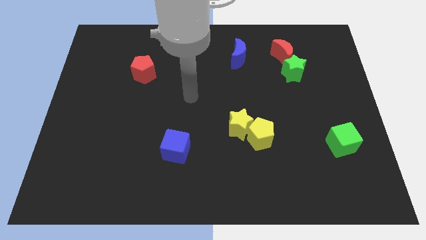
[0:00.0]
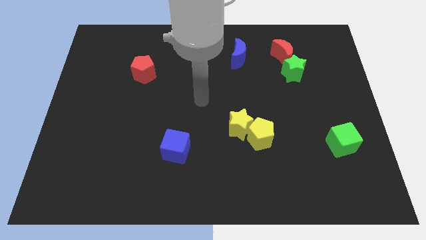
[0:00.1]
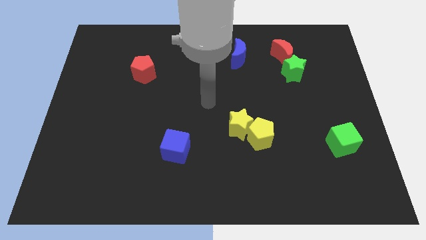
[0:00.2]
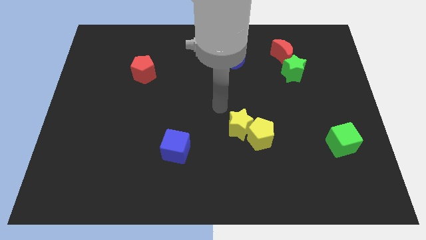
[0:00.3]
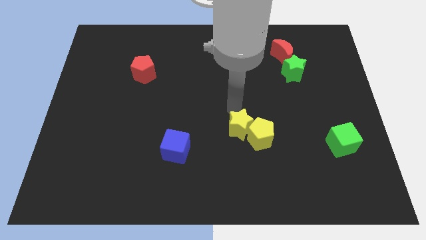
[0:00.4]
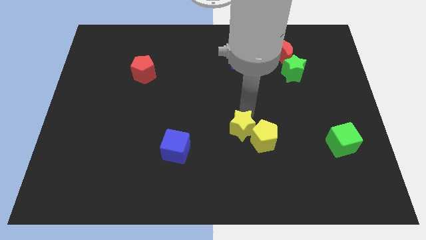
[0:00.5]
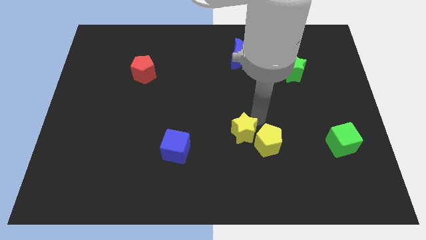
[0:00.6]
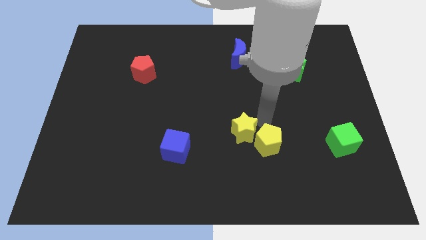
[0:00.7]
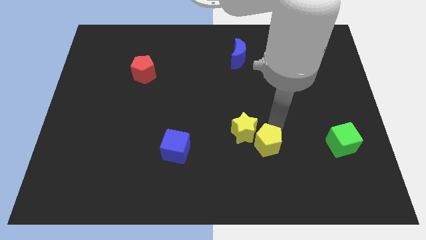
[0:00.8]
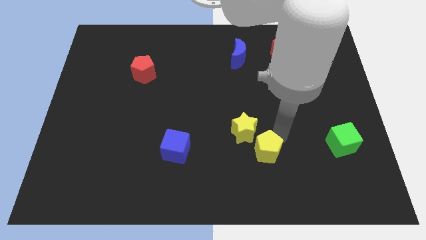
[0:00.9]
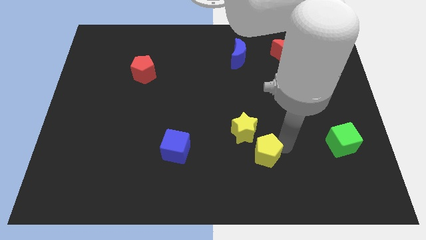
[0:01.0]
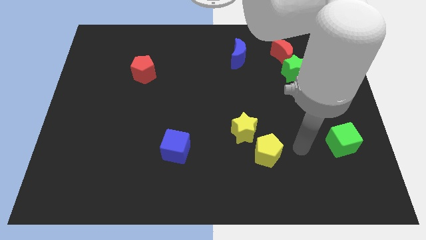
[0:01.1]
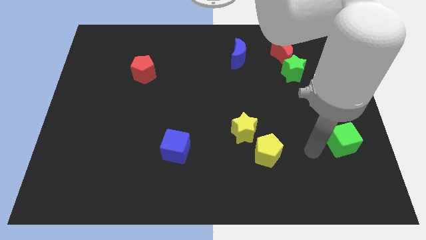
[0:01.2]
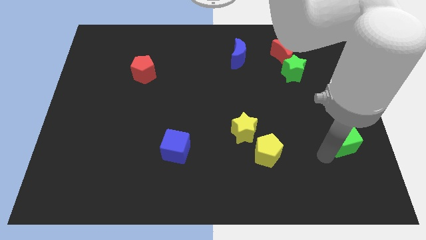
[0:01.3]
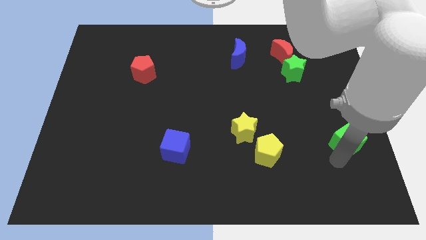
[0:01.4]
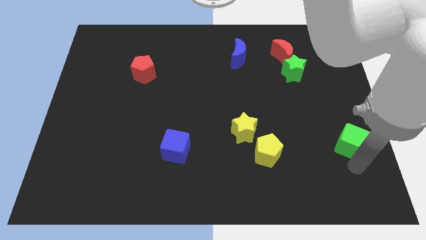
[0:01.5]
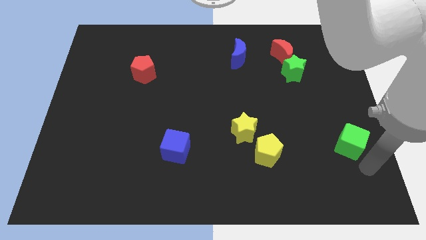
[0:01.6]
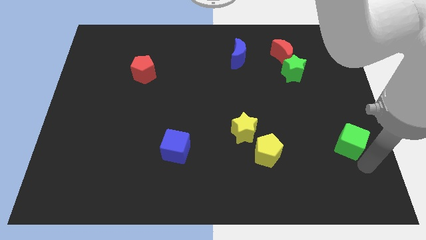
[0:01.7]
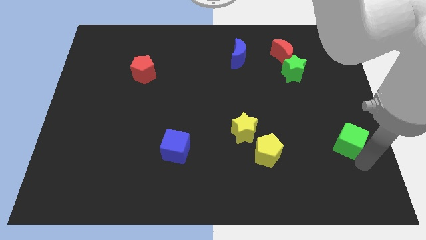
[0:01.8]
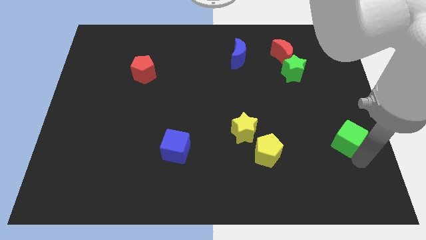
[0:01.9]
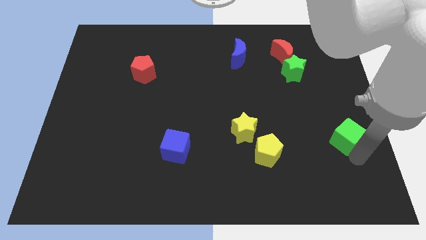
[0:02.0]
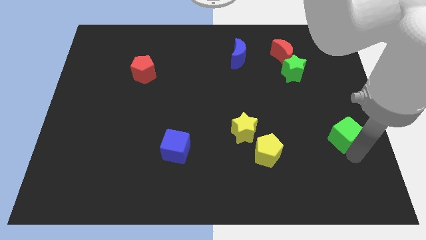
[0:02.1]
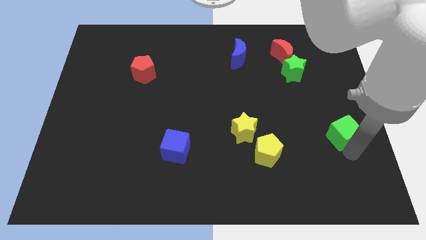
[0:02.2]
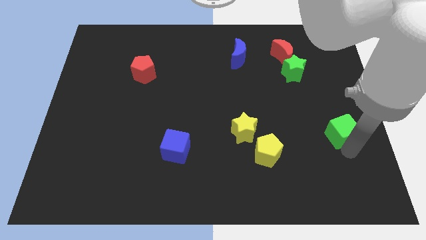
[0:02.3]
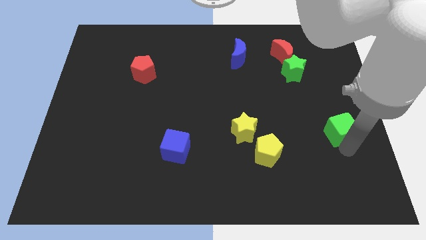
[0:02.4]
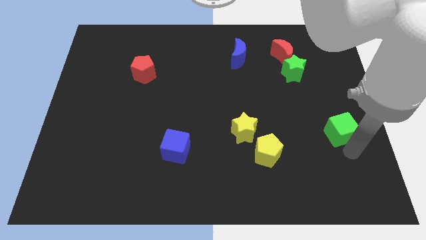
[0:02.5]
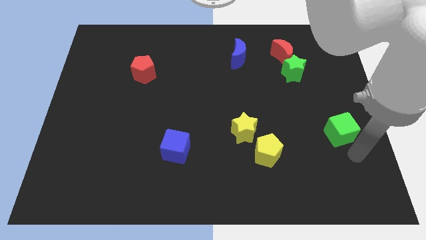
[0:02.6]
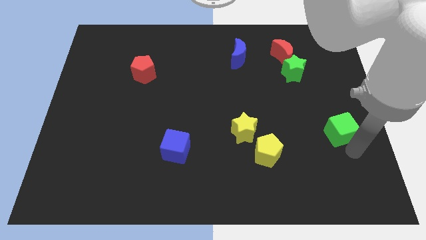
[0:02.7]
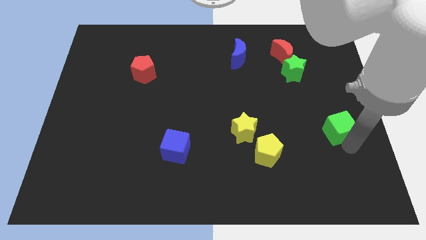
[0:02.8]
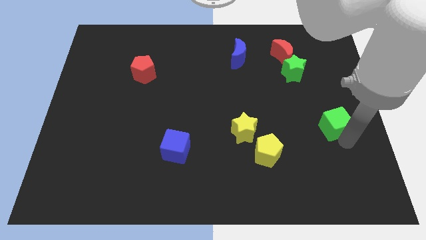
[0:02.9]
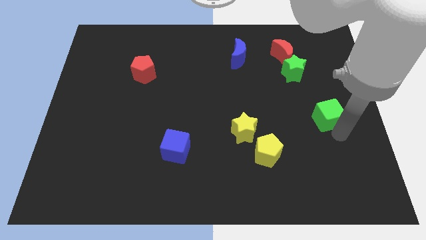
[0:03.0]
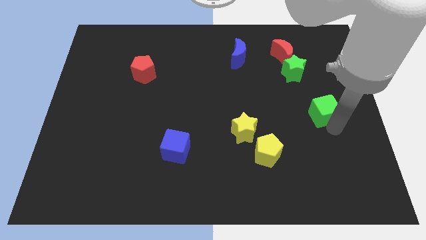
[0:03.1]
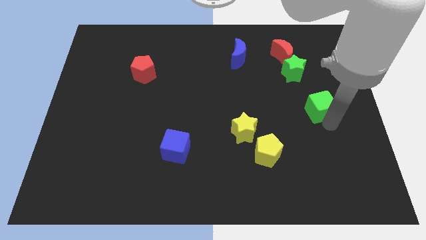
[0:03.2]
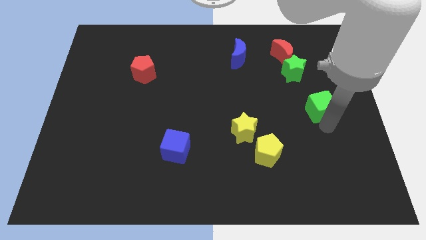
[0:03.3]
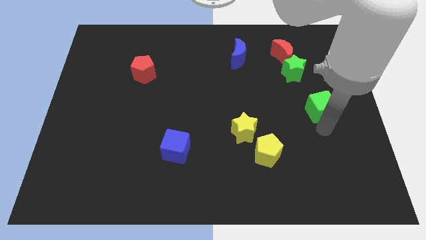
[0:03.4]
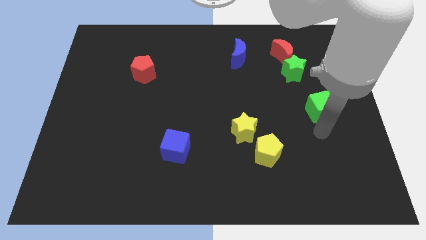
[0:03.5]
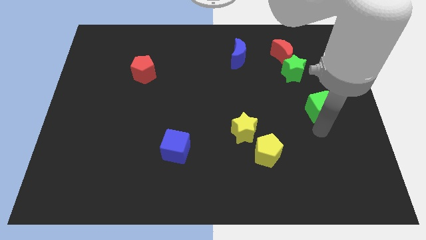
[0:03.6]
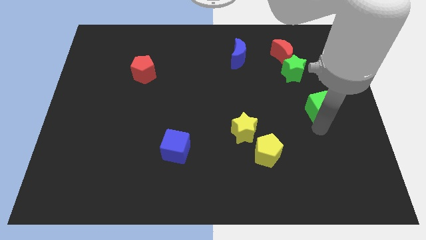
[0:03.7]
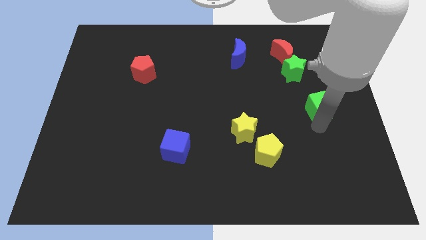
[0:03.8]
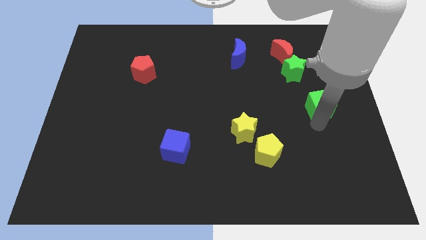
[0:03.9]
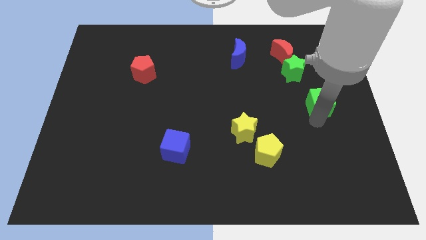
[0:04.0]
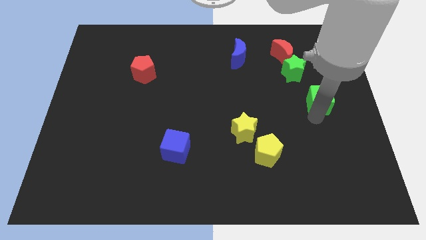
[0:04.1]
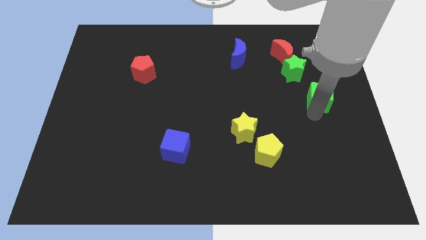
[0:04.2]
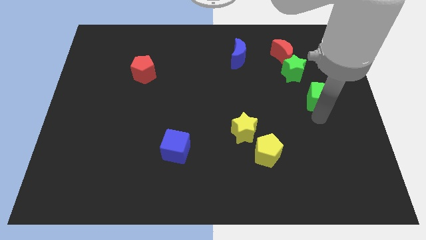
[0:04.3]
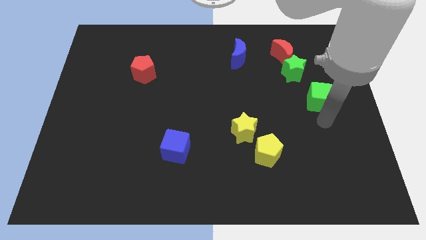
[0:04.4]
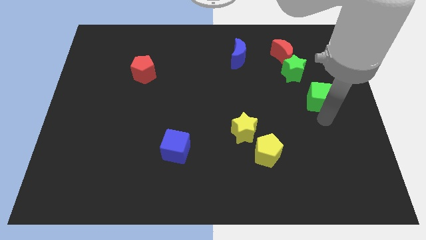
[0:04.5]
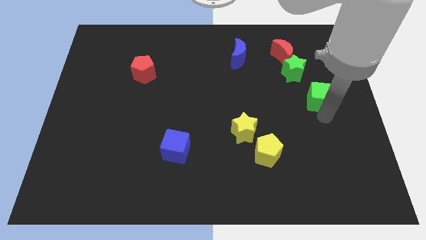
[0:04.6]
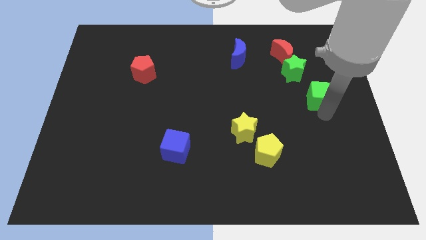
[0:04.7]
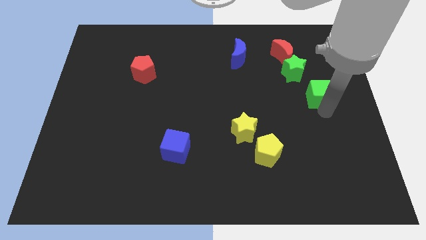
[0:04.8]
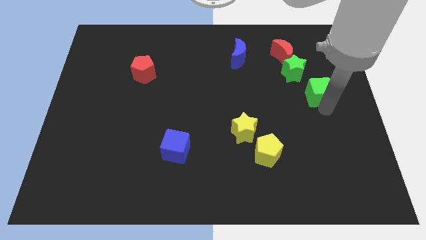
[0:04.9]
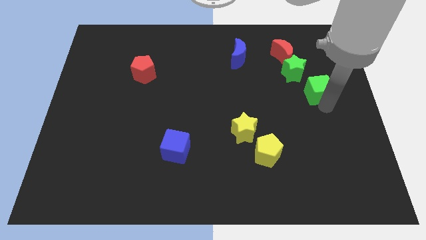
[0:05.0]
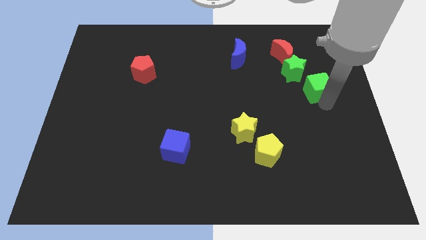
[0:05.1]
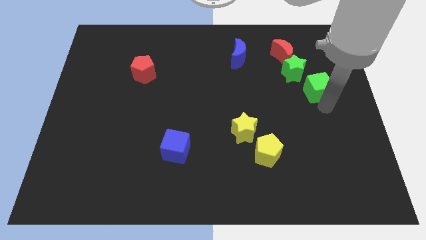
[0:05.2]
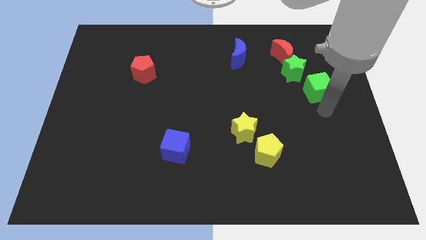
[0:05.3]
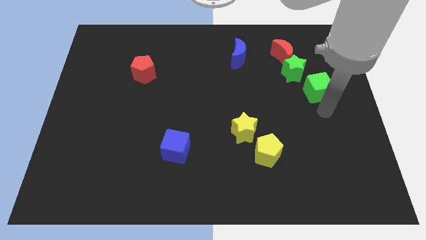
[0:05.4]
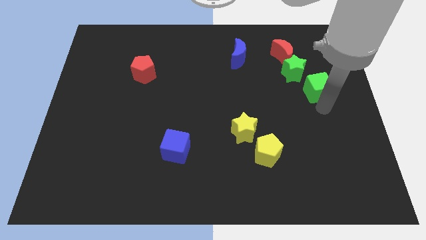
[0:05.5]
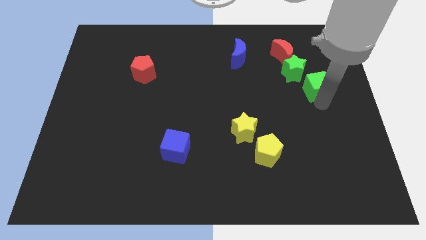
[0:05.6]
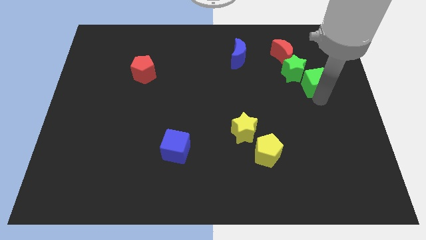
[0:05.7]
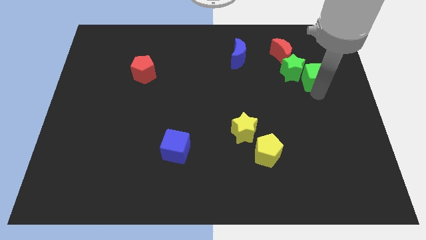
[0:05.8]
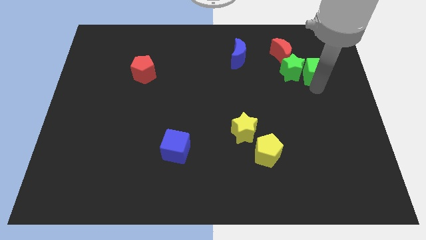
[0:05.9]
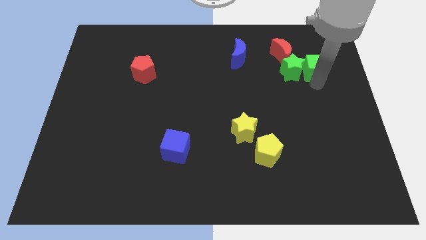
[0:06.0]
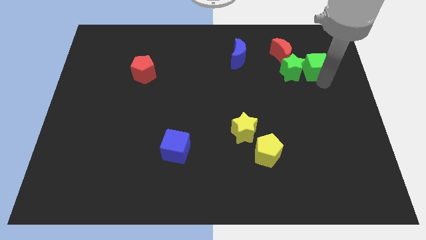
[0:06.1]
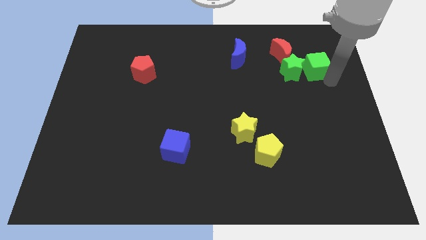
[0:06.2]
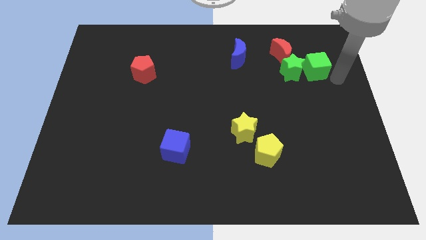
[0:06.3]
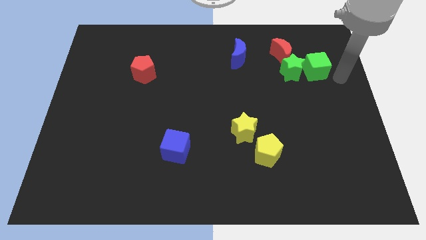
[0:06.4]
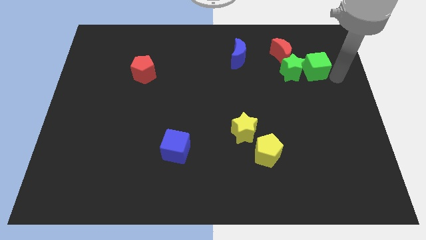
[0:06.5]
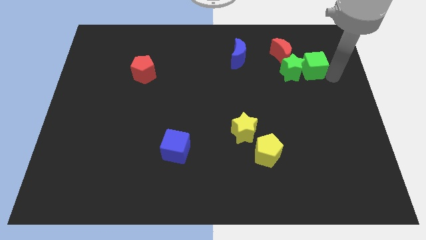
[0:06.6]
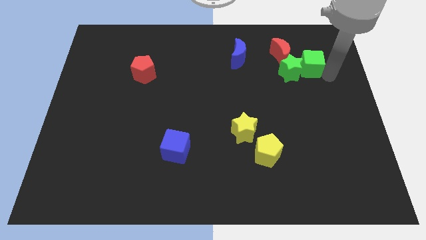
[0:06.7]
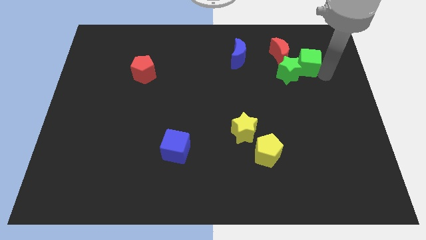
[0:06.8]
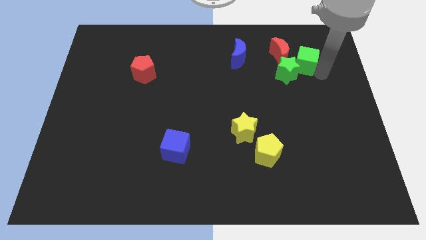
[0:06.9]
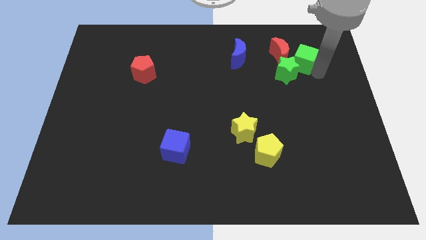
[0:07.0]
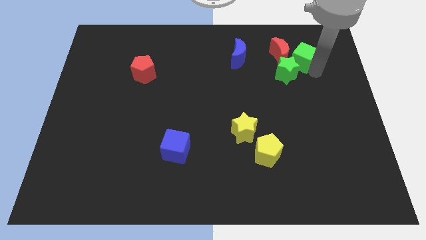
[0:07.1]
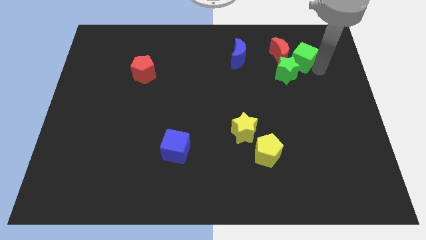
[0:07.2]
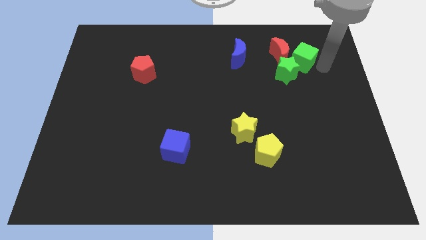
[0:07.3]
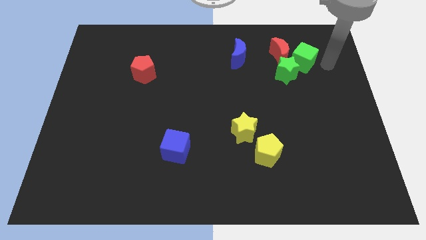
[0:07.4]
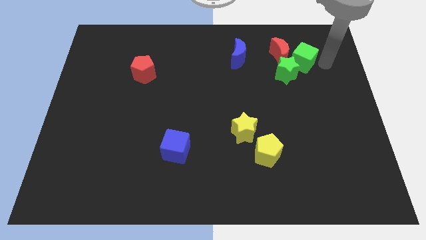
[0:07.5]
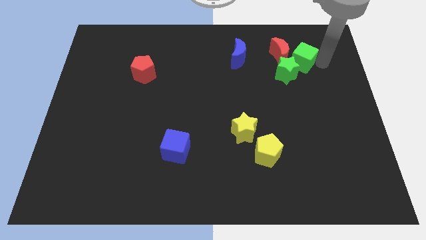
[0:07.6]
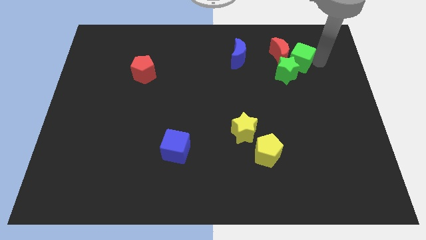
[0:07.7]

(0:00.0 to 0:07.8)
slide the green cube just right of the blue moon

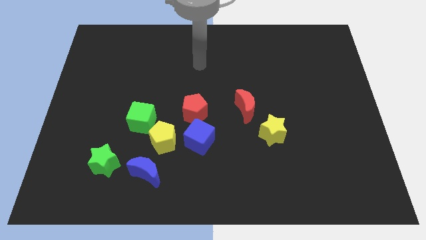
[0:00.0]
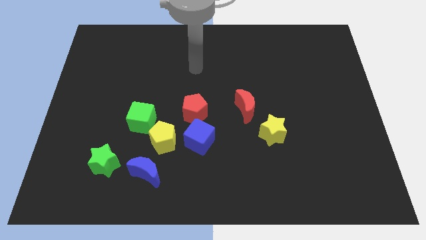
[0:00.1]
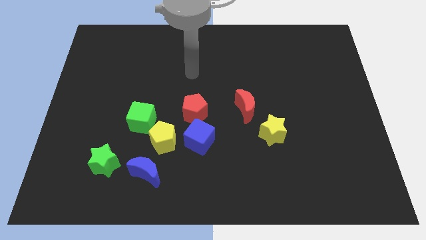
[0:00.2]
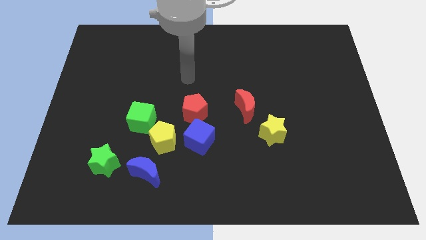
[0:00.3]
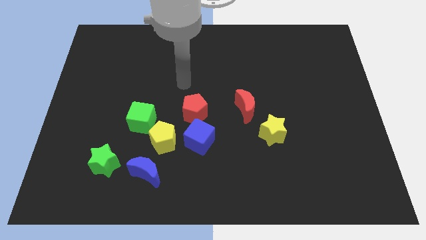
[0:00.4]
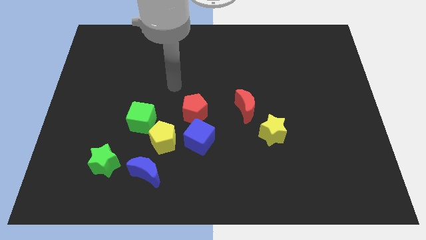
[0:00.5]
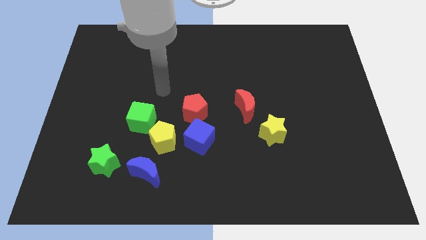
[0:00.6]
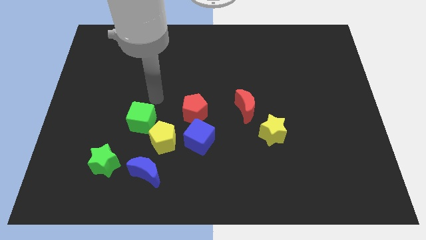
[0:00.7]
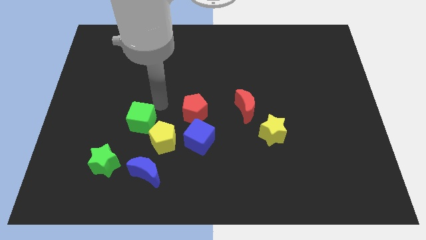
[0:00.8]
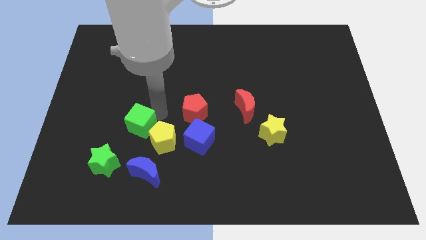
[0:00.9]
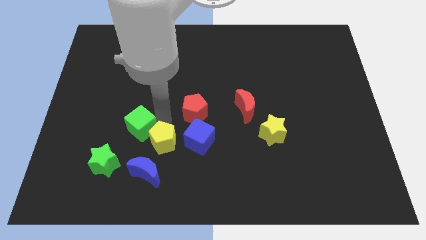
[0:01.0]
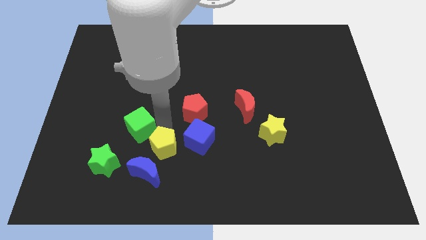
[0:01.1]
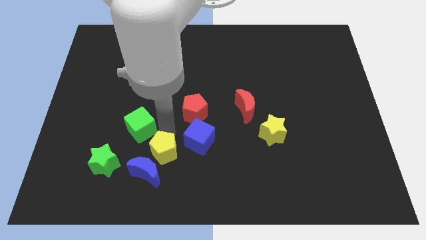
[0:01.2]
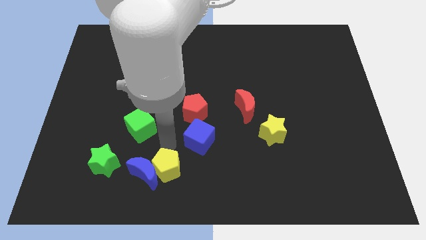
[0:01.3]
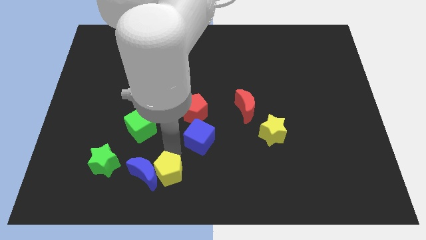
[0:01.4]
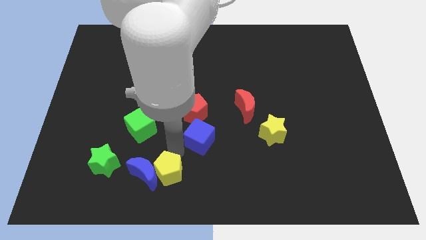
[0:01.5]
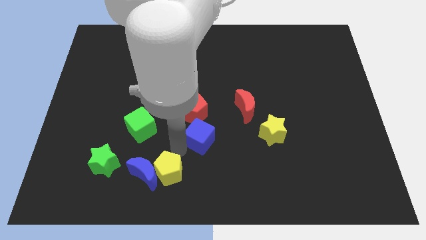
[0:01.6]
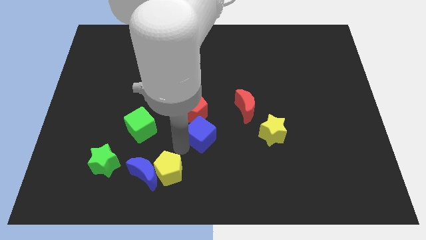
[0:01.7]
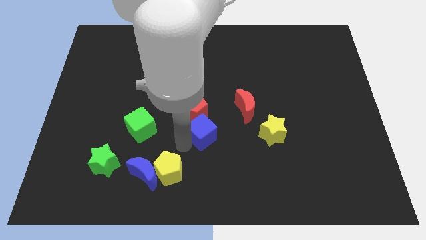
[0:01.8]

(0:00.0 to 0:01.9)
slide the blue cube diagonally down and to the left of the red moon
